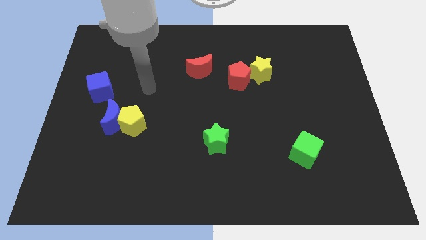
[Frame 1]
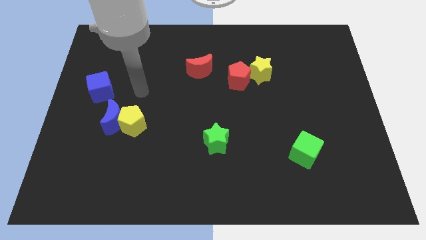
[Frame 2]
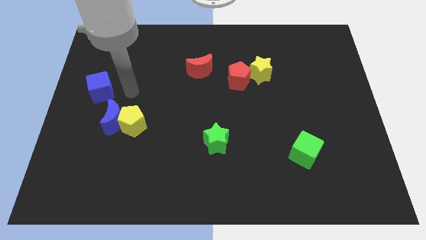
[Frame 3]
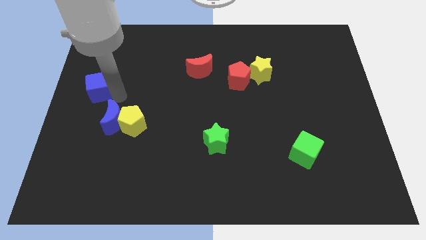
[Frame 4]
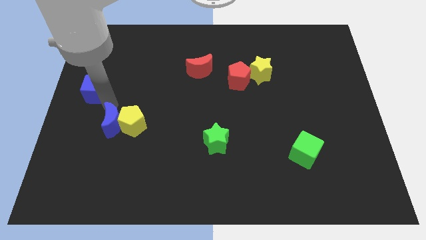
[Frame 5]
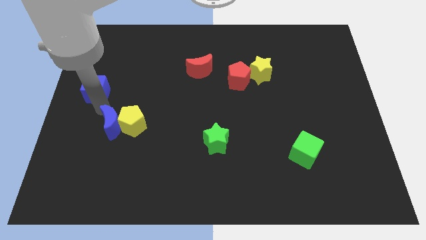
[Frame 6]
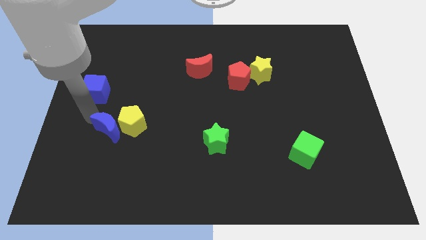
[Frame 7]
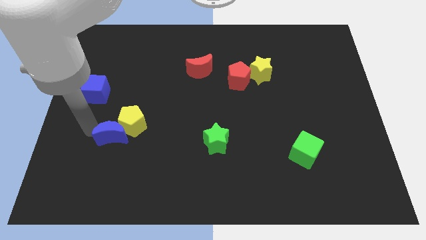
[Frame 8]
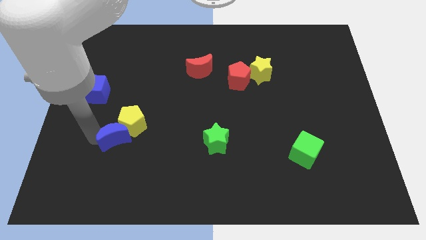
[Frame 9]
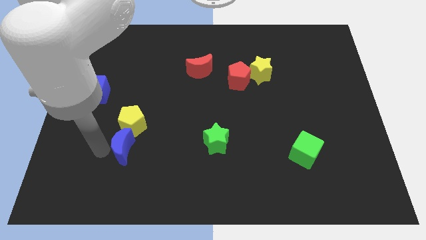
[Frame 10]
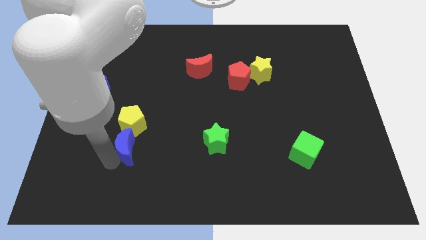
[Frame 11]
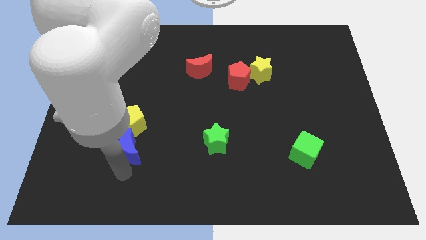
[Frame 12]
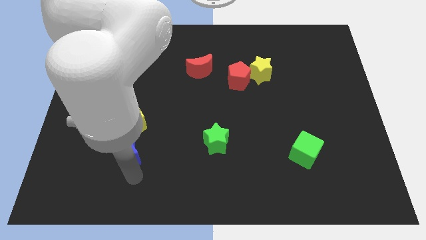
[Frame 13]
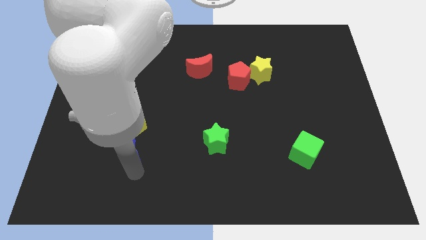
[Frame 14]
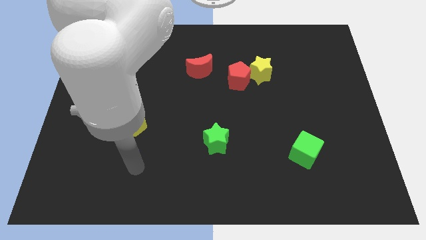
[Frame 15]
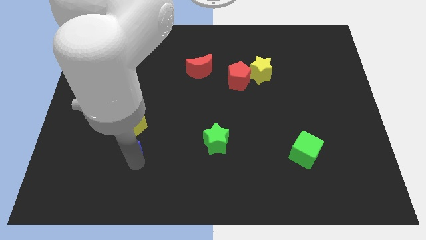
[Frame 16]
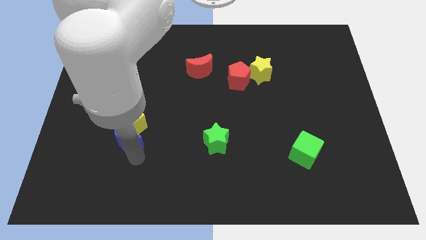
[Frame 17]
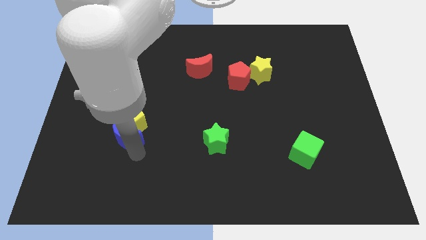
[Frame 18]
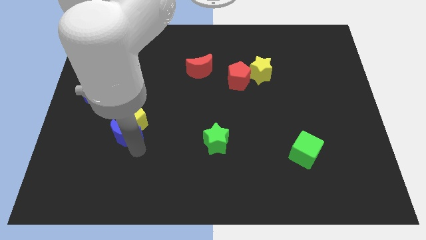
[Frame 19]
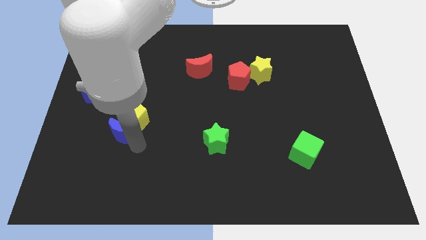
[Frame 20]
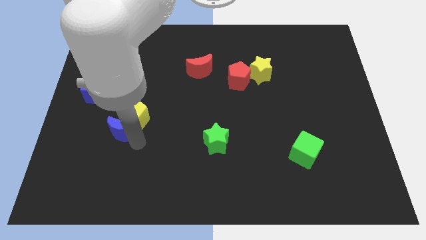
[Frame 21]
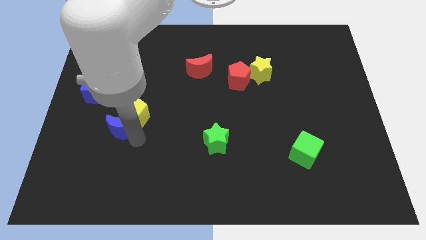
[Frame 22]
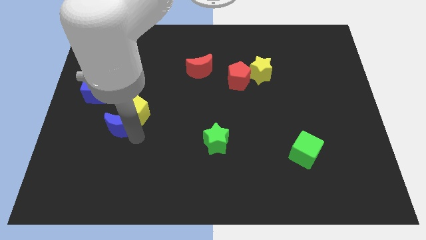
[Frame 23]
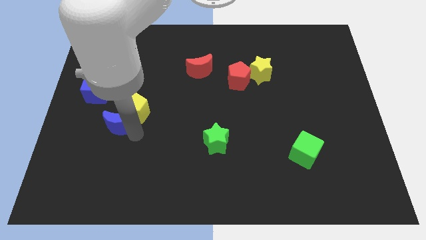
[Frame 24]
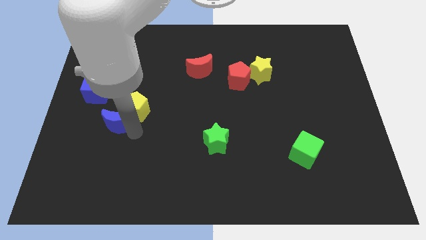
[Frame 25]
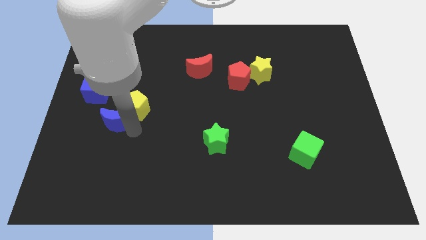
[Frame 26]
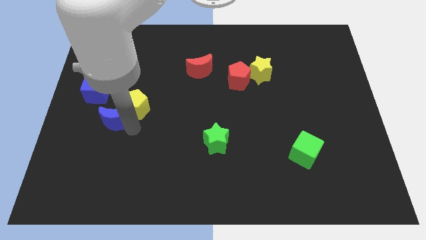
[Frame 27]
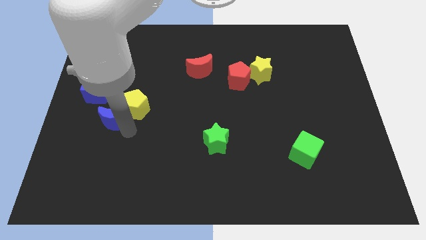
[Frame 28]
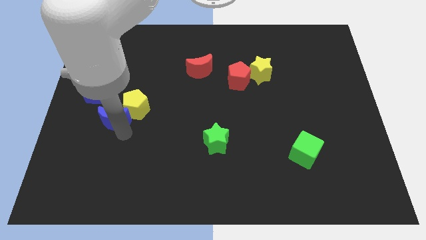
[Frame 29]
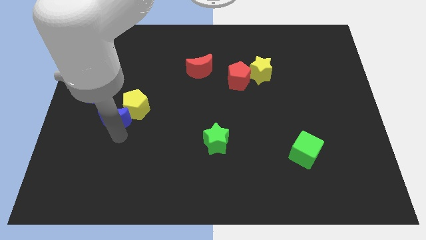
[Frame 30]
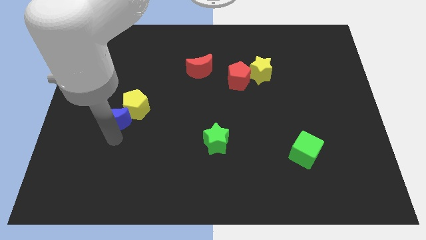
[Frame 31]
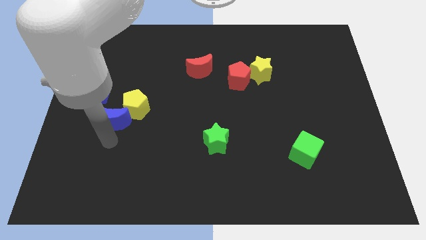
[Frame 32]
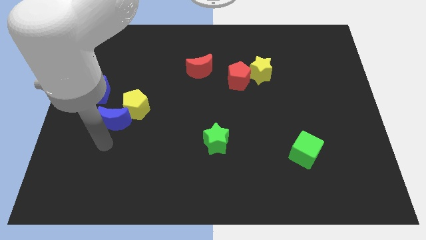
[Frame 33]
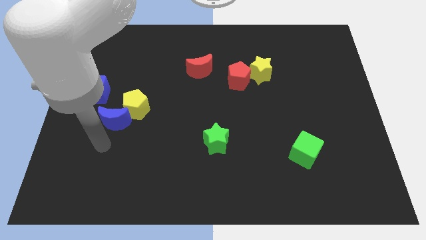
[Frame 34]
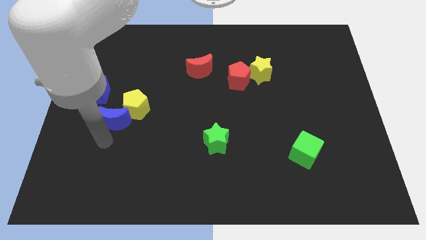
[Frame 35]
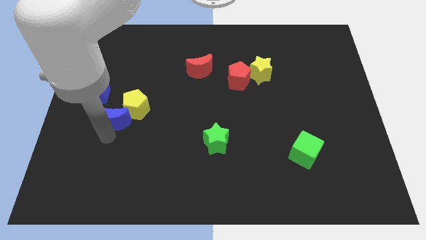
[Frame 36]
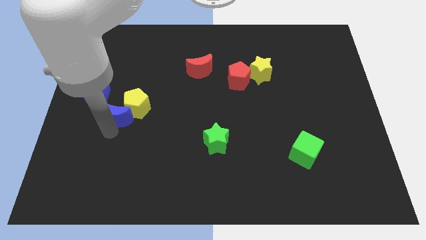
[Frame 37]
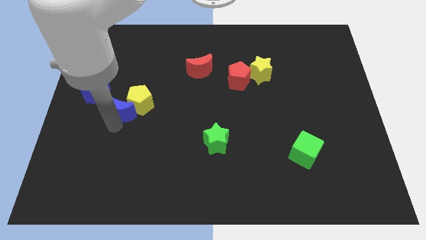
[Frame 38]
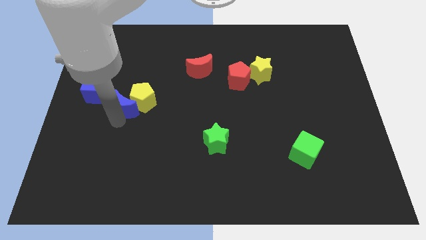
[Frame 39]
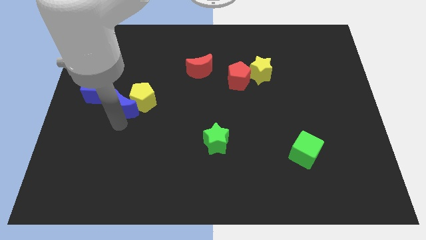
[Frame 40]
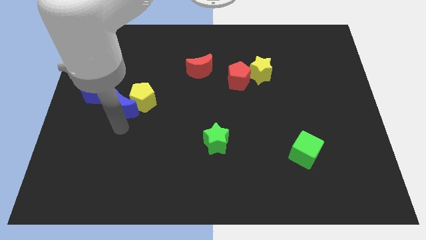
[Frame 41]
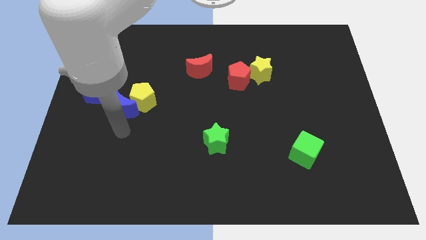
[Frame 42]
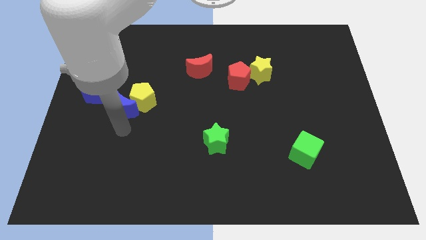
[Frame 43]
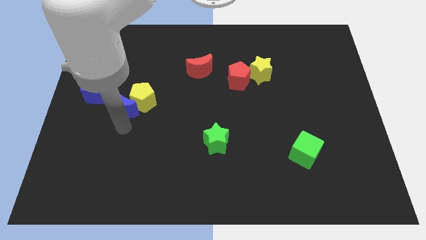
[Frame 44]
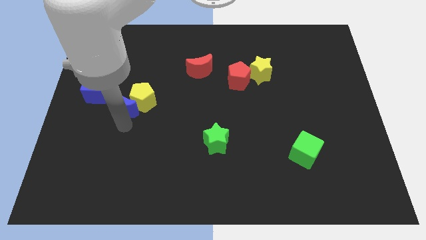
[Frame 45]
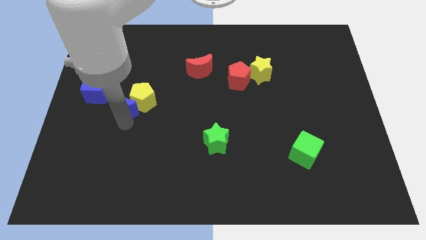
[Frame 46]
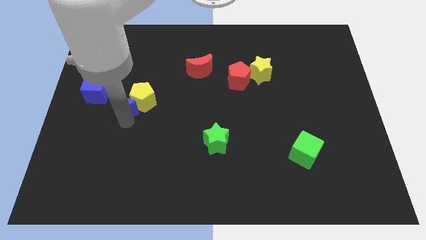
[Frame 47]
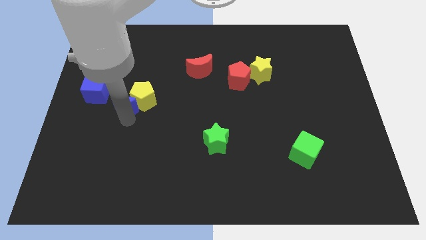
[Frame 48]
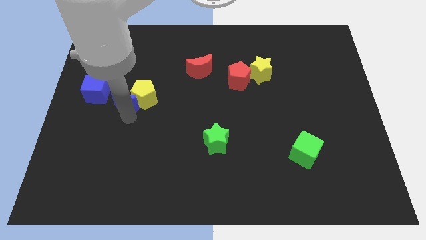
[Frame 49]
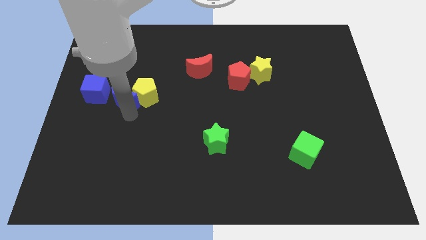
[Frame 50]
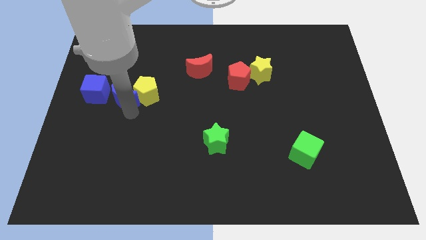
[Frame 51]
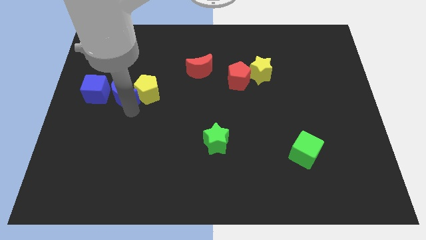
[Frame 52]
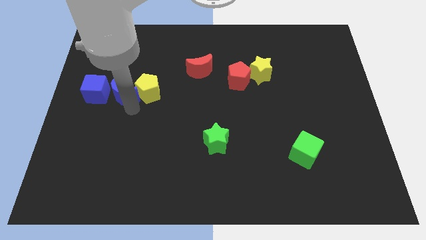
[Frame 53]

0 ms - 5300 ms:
push the blue moon a bit upwards

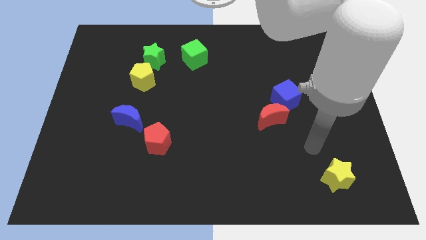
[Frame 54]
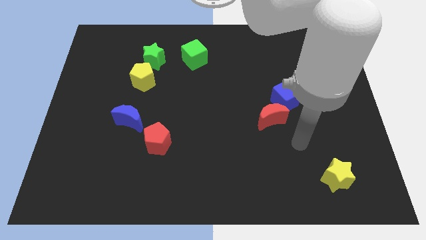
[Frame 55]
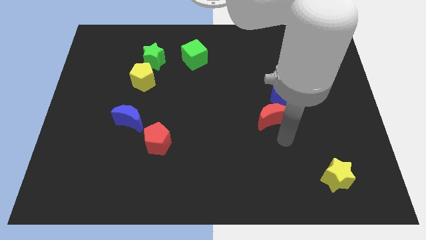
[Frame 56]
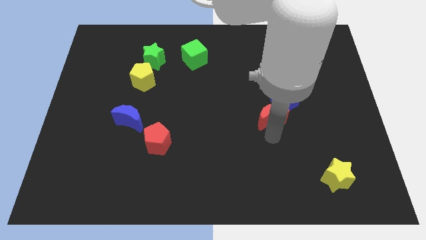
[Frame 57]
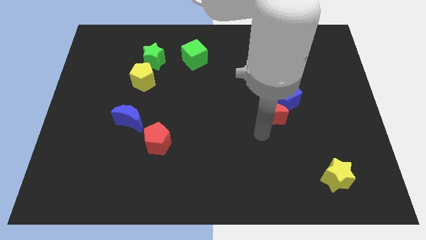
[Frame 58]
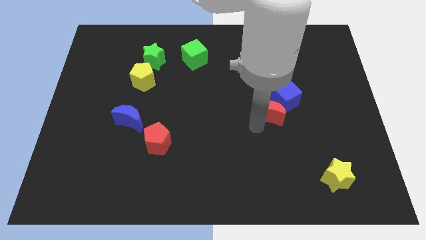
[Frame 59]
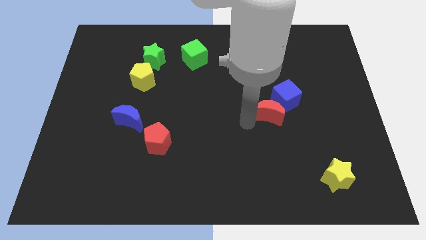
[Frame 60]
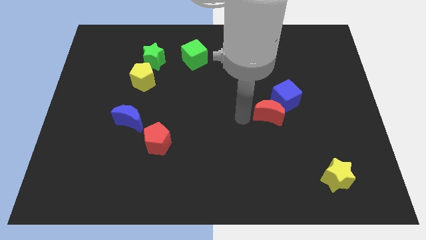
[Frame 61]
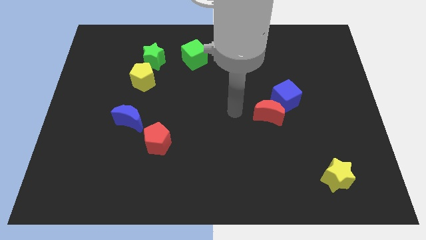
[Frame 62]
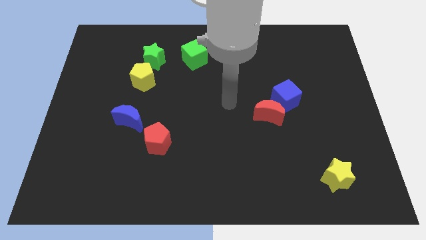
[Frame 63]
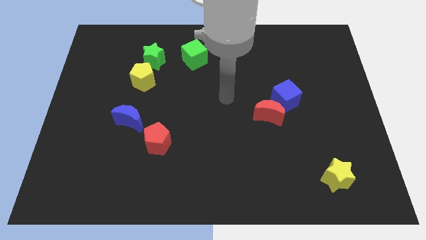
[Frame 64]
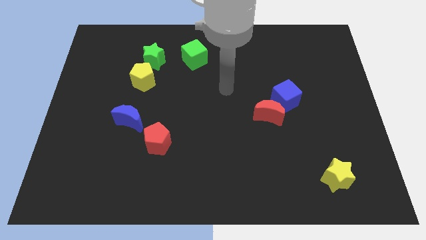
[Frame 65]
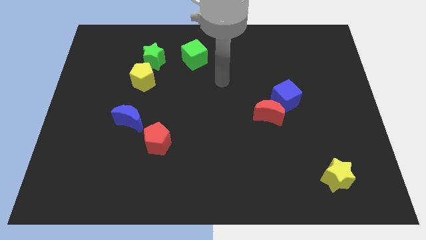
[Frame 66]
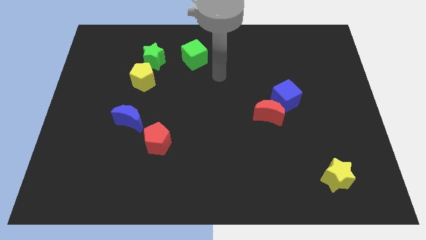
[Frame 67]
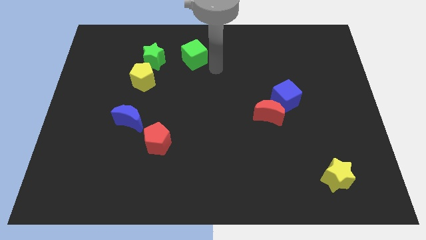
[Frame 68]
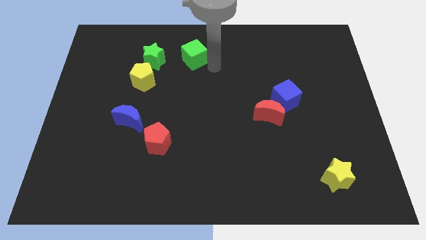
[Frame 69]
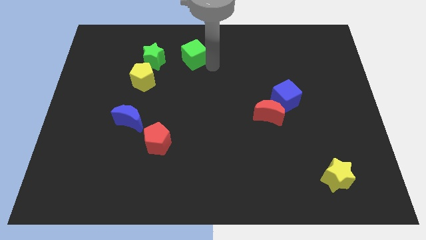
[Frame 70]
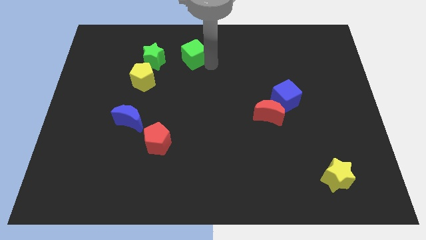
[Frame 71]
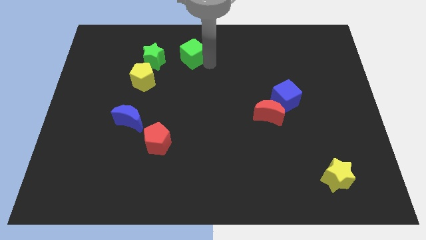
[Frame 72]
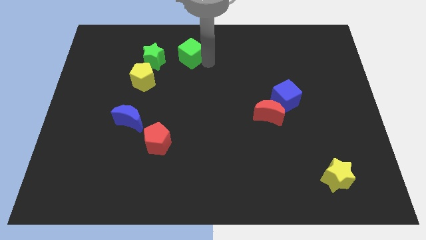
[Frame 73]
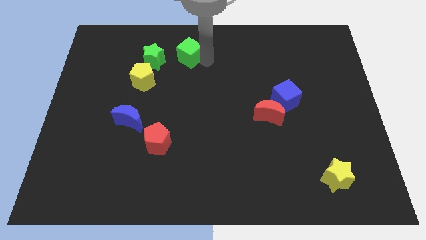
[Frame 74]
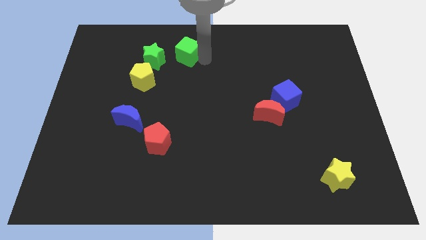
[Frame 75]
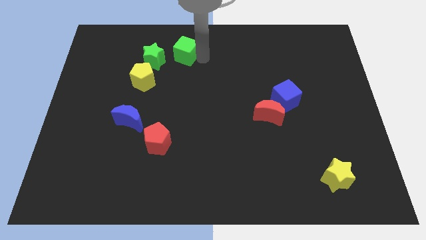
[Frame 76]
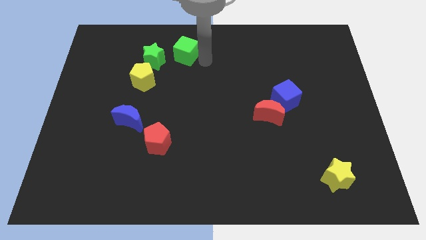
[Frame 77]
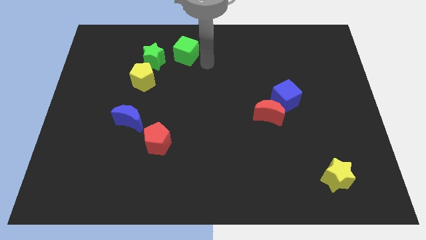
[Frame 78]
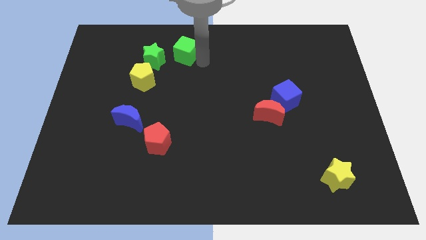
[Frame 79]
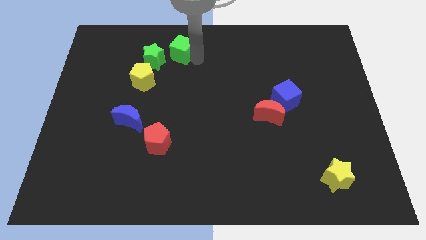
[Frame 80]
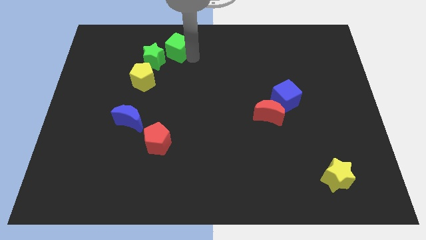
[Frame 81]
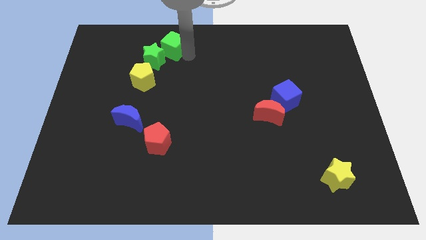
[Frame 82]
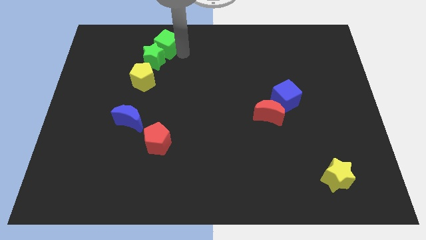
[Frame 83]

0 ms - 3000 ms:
slightly move the green cube left
